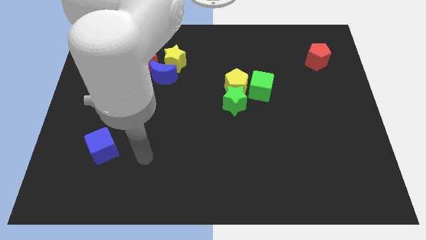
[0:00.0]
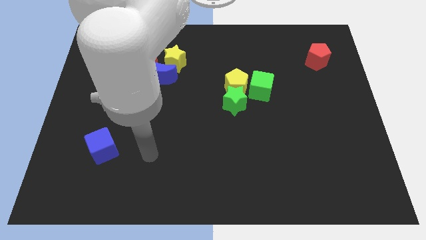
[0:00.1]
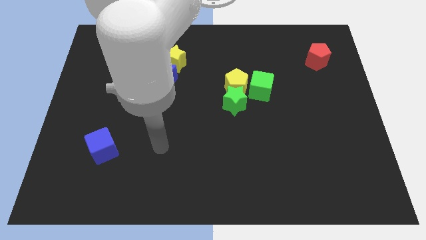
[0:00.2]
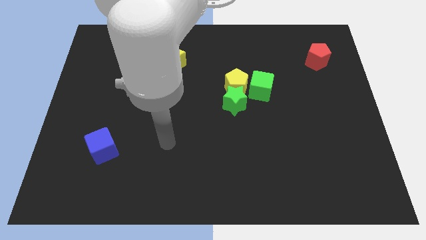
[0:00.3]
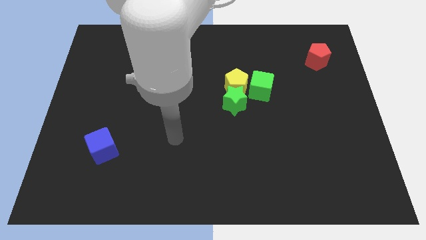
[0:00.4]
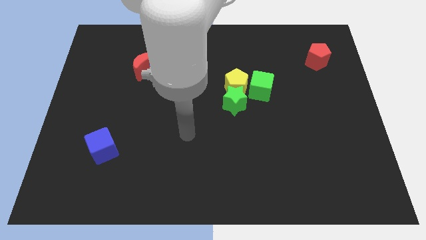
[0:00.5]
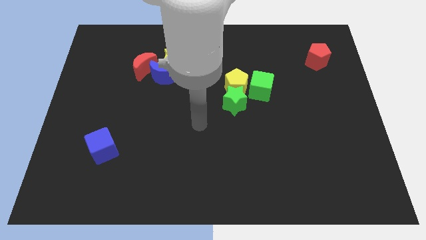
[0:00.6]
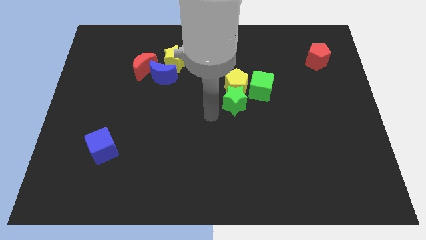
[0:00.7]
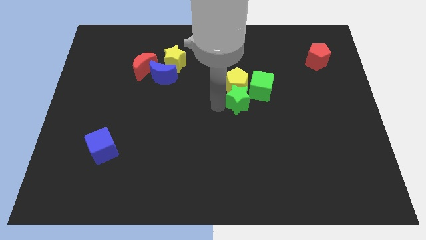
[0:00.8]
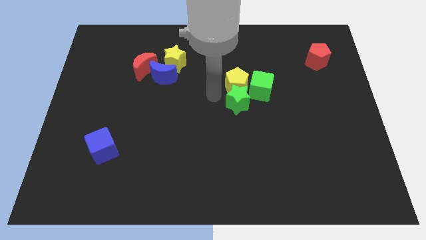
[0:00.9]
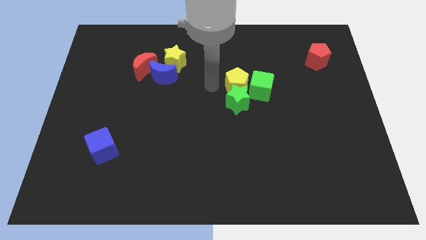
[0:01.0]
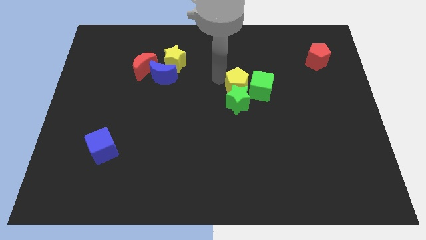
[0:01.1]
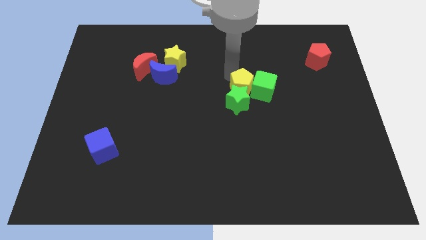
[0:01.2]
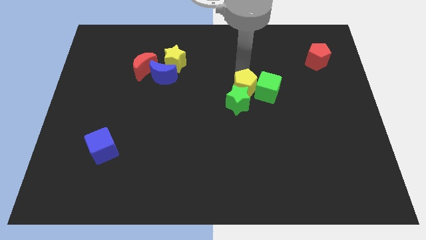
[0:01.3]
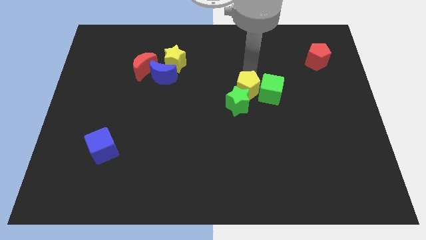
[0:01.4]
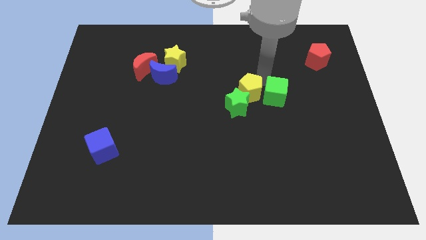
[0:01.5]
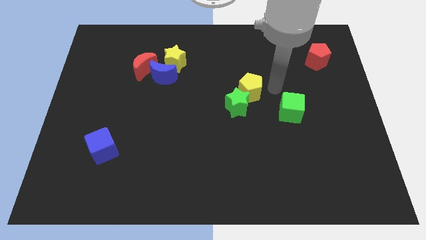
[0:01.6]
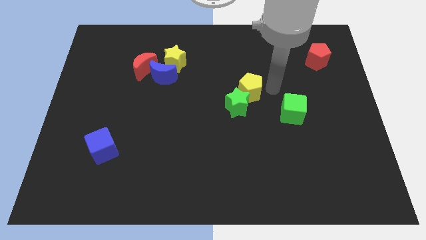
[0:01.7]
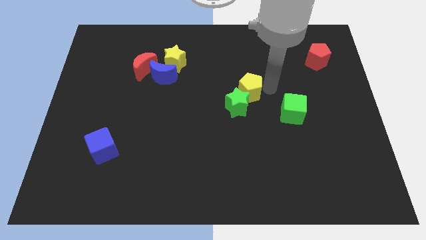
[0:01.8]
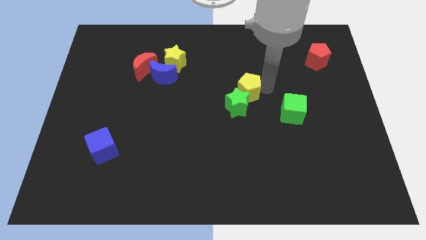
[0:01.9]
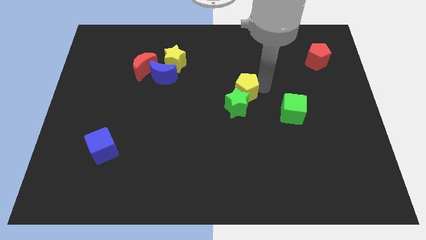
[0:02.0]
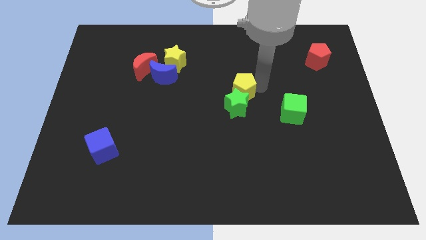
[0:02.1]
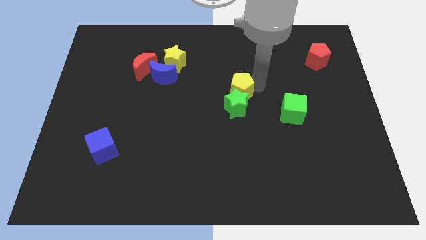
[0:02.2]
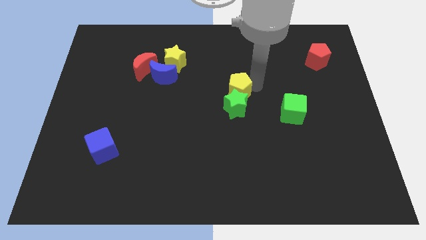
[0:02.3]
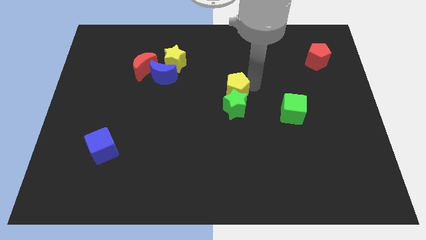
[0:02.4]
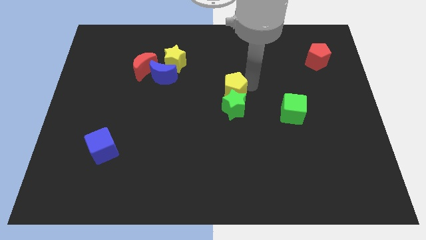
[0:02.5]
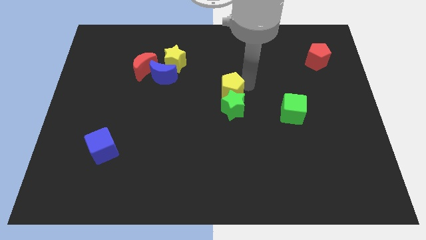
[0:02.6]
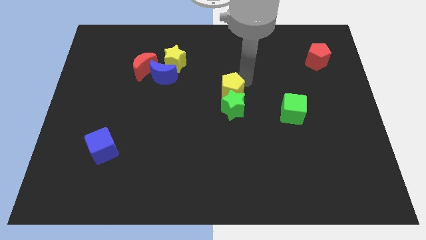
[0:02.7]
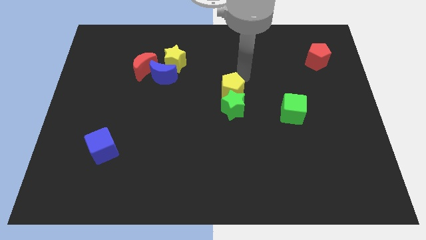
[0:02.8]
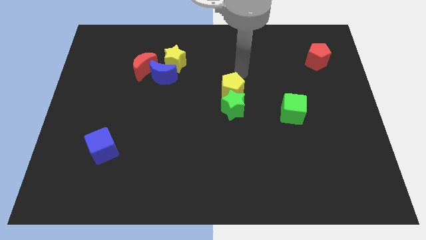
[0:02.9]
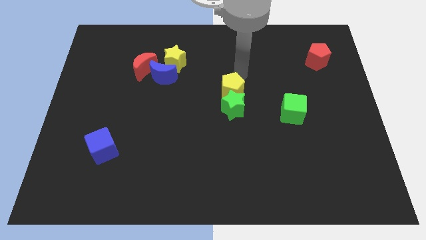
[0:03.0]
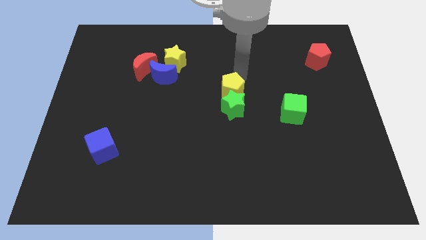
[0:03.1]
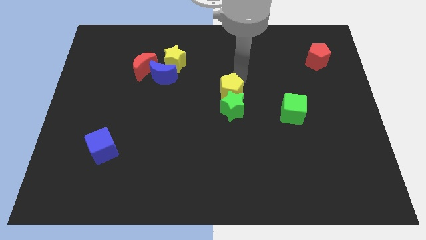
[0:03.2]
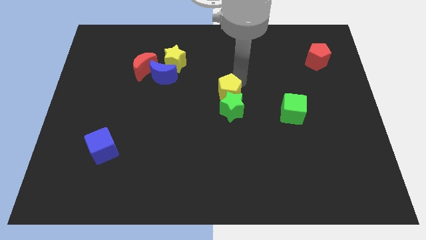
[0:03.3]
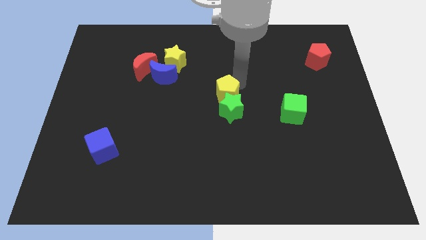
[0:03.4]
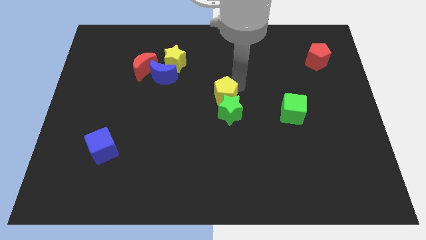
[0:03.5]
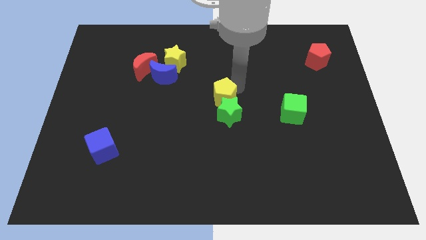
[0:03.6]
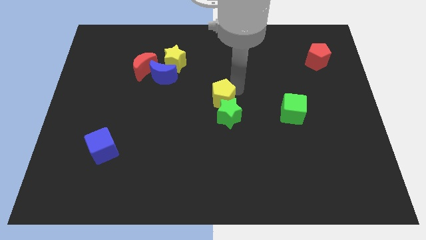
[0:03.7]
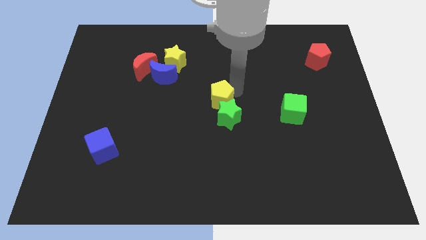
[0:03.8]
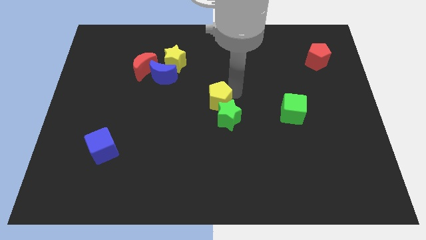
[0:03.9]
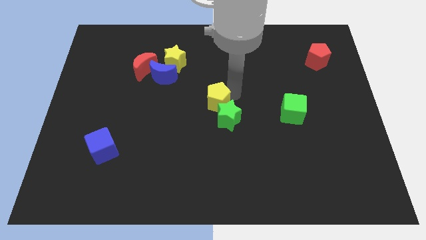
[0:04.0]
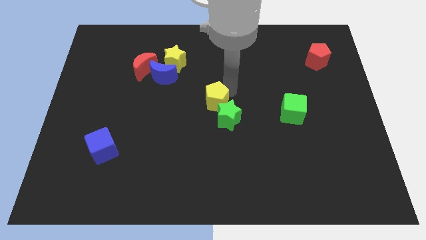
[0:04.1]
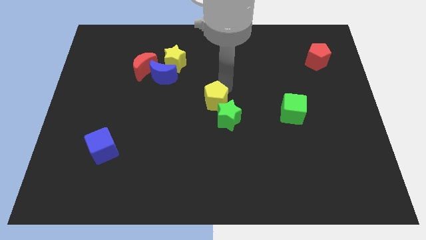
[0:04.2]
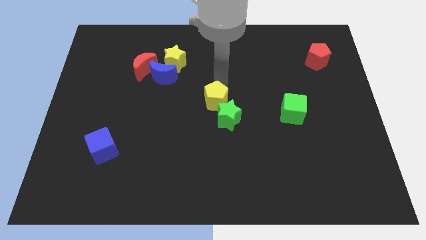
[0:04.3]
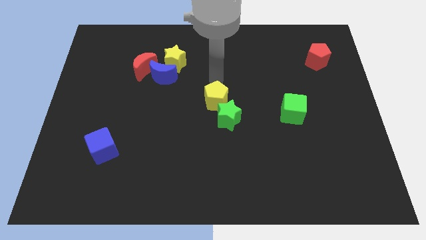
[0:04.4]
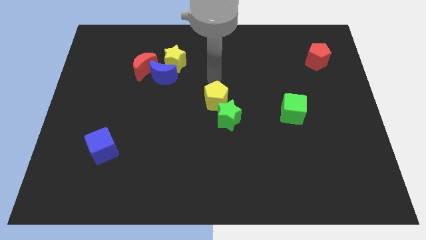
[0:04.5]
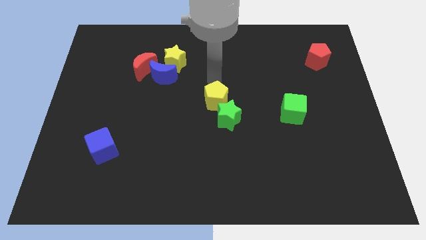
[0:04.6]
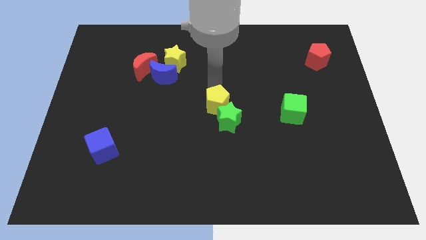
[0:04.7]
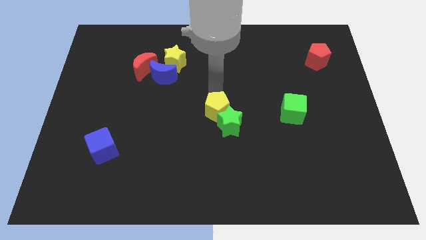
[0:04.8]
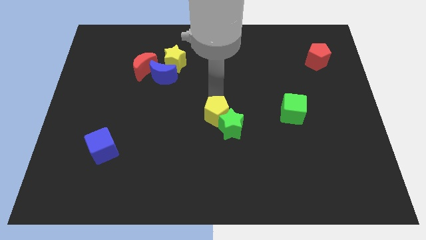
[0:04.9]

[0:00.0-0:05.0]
push the yellow pentagon a little bit downwards

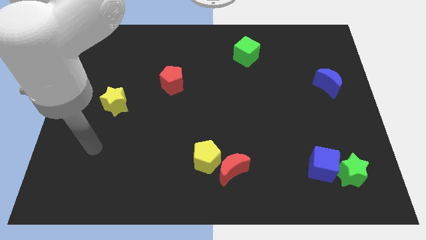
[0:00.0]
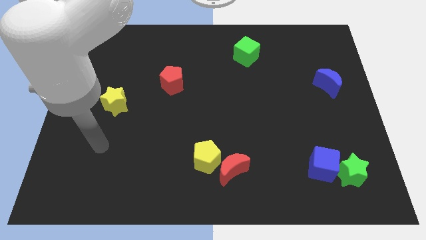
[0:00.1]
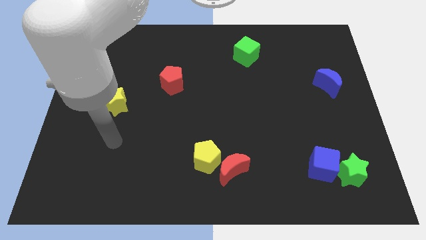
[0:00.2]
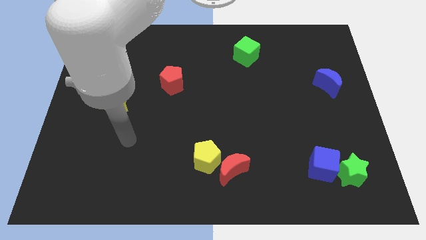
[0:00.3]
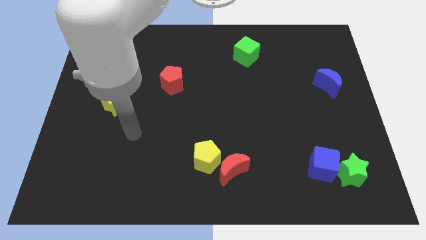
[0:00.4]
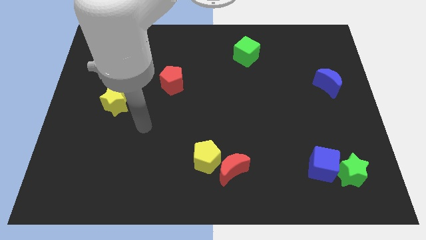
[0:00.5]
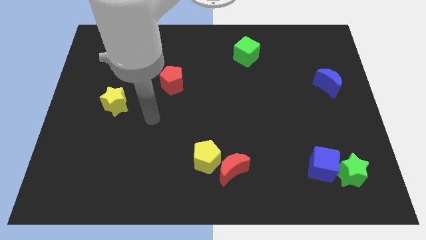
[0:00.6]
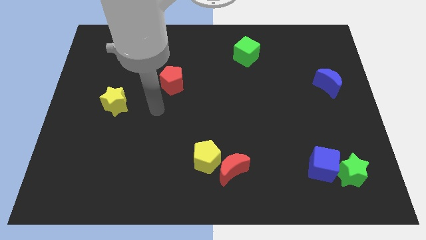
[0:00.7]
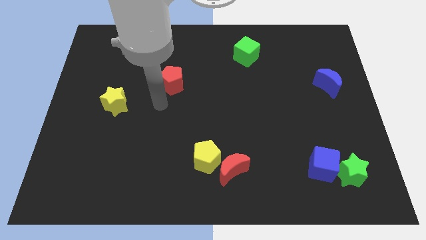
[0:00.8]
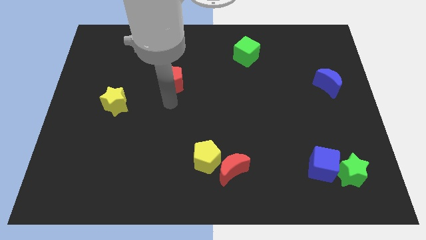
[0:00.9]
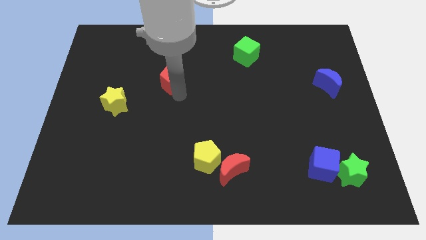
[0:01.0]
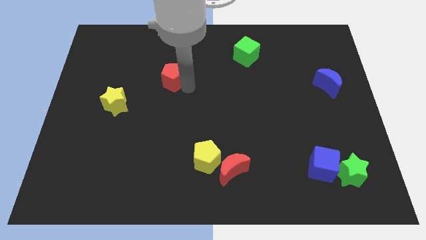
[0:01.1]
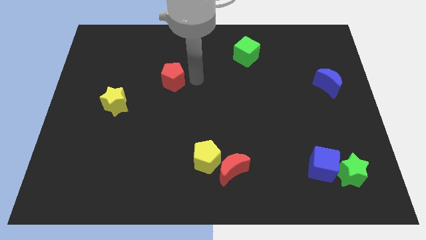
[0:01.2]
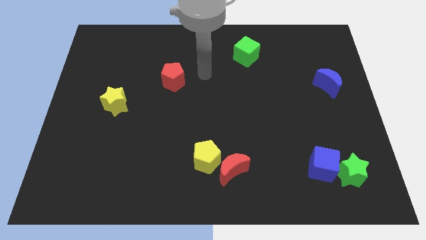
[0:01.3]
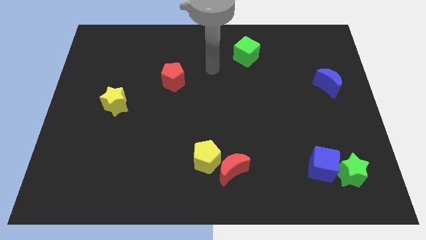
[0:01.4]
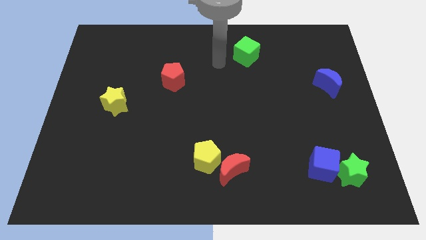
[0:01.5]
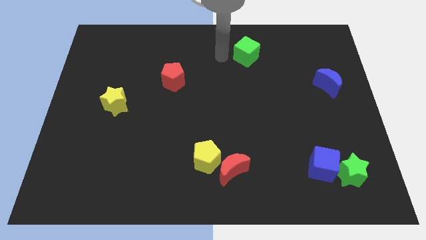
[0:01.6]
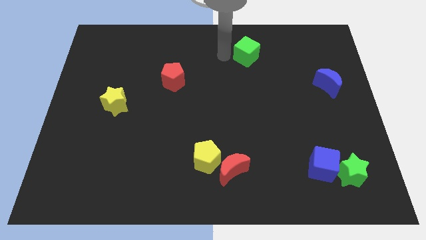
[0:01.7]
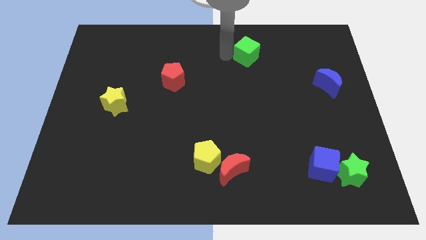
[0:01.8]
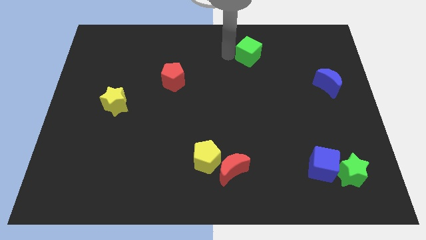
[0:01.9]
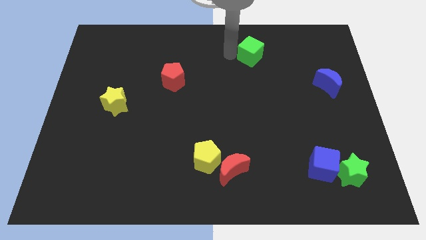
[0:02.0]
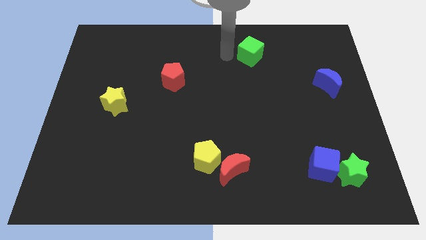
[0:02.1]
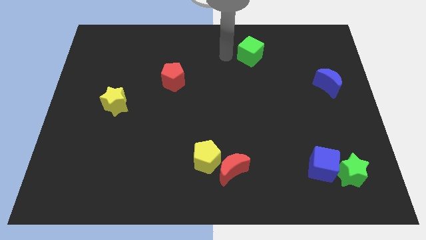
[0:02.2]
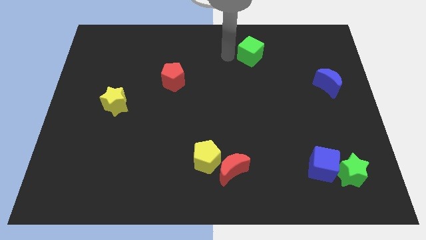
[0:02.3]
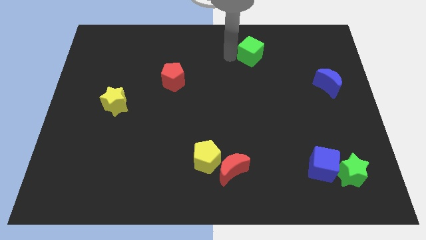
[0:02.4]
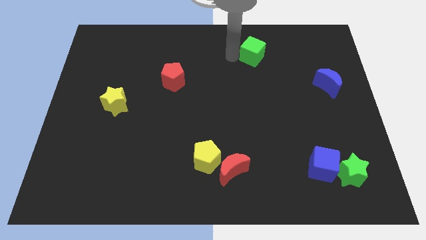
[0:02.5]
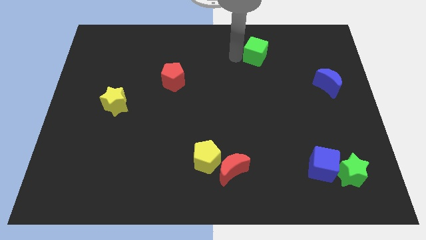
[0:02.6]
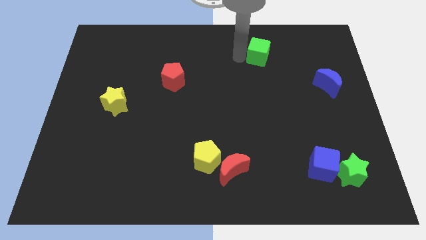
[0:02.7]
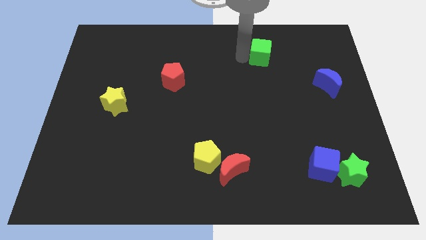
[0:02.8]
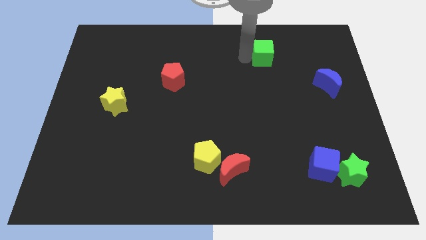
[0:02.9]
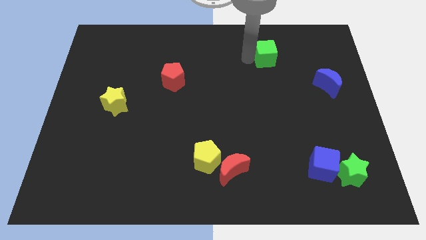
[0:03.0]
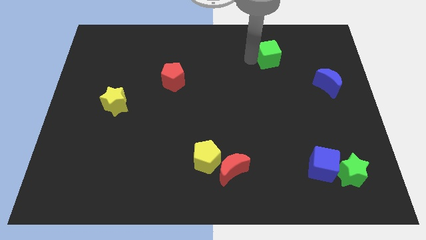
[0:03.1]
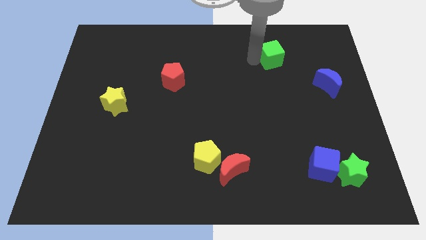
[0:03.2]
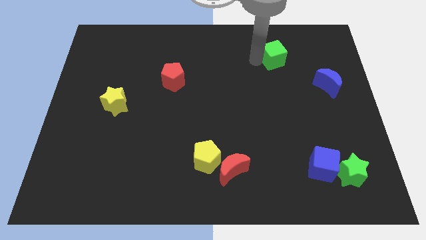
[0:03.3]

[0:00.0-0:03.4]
move the green cube right slightly
